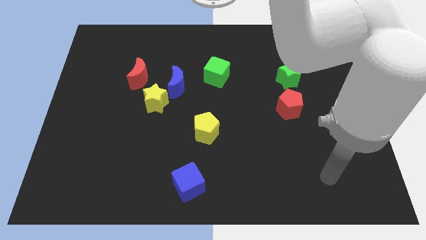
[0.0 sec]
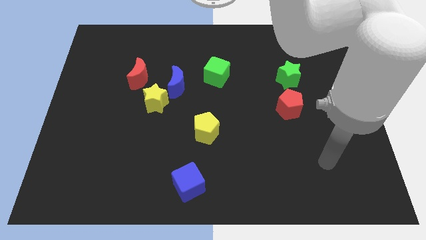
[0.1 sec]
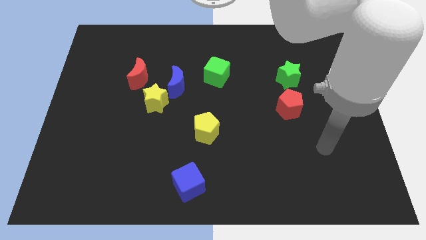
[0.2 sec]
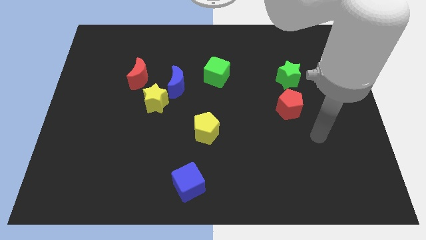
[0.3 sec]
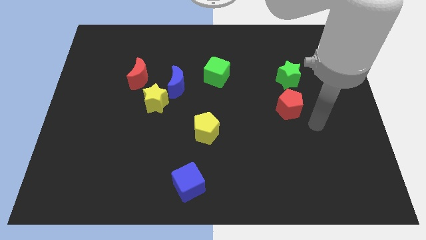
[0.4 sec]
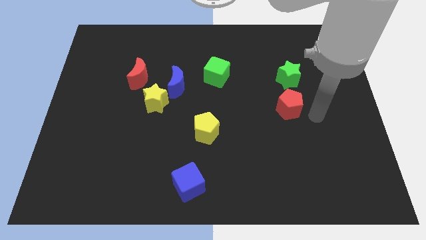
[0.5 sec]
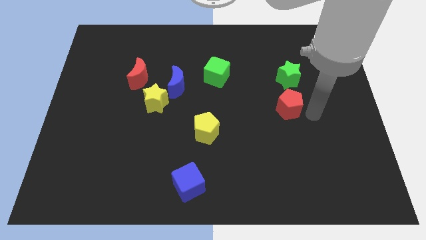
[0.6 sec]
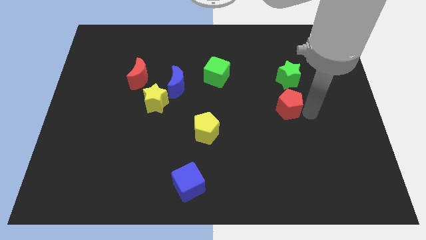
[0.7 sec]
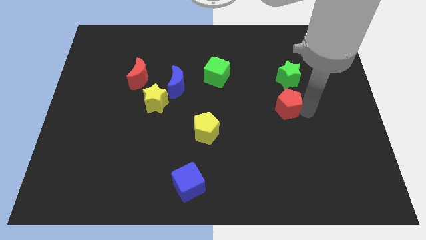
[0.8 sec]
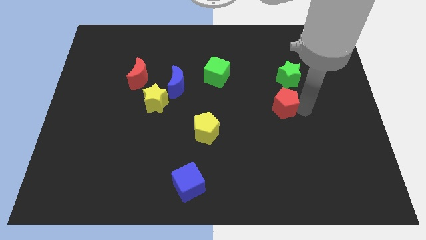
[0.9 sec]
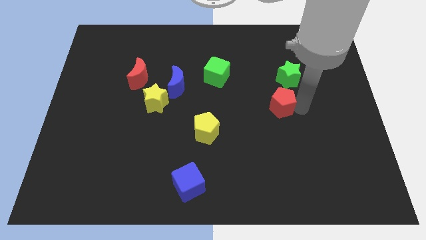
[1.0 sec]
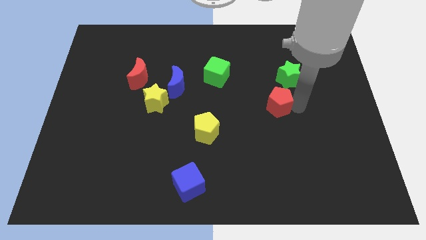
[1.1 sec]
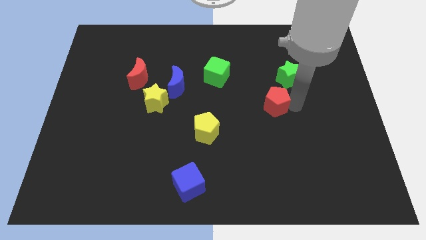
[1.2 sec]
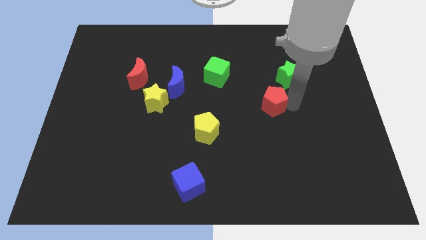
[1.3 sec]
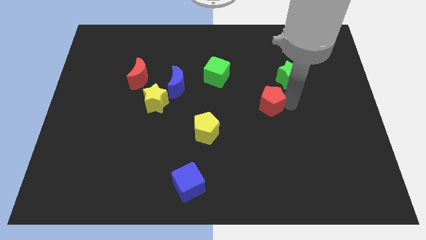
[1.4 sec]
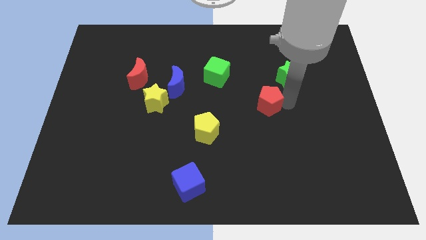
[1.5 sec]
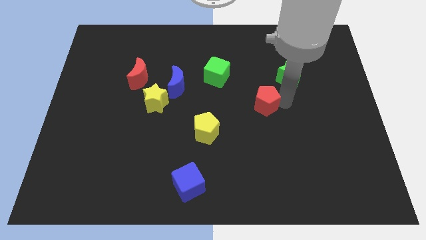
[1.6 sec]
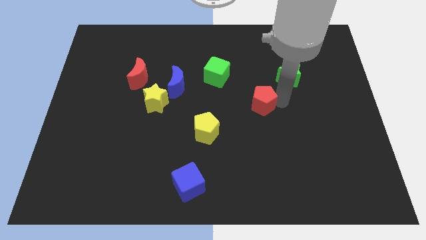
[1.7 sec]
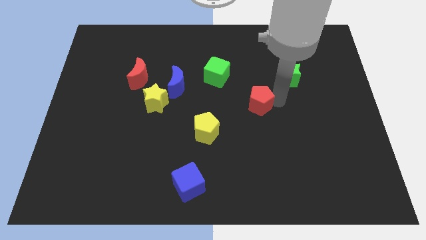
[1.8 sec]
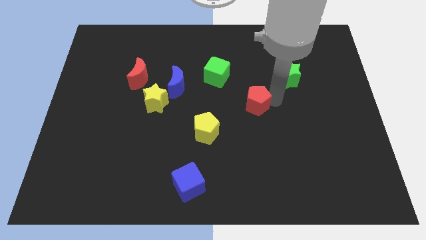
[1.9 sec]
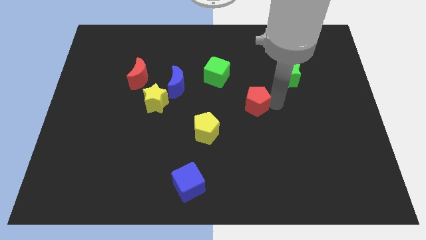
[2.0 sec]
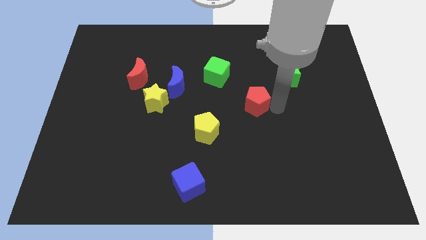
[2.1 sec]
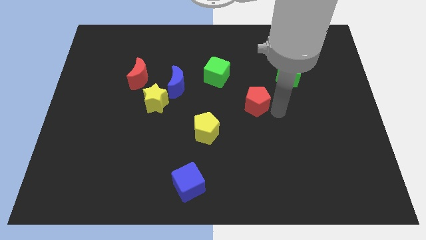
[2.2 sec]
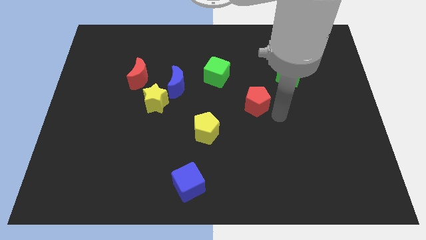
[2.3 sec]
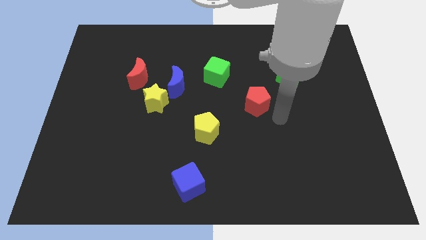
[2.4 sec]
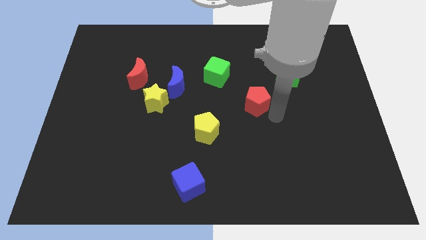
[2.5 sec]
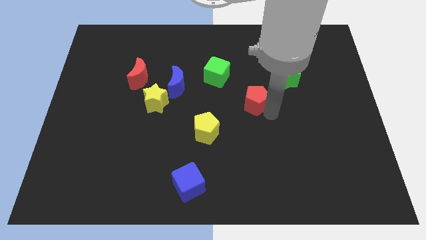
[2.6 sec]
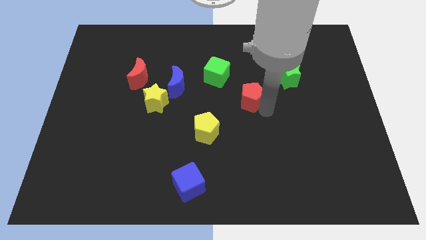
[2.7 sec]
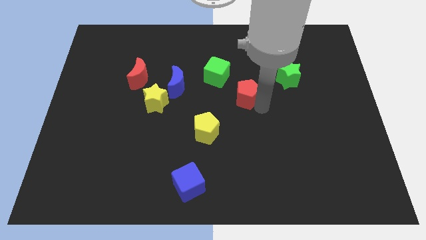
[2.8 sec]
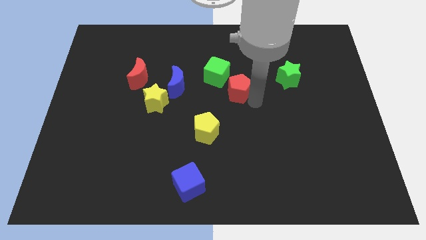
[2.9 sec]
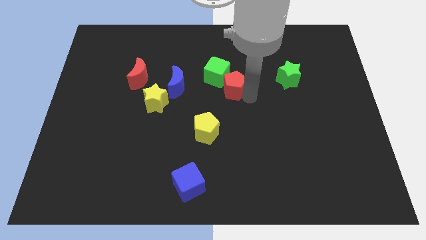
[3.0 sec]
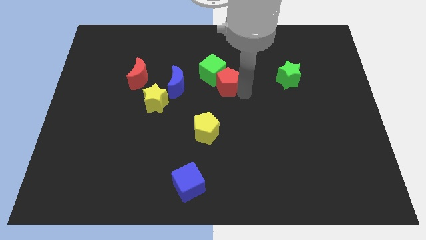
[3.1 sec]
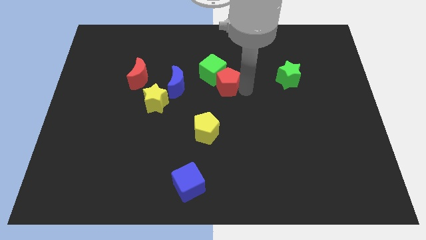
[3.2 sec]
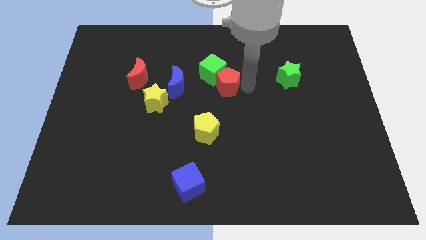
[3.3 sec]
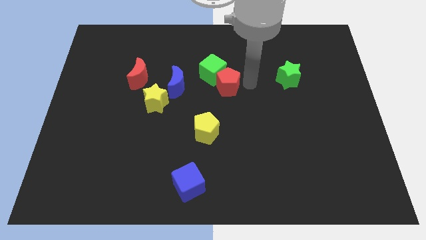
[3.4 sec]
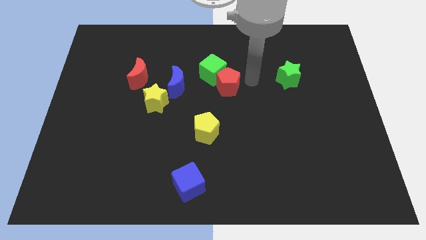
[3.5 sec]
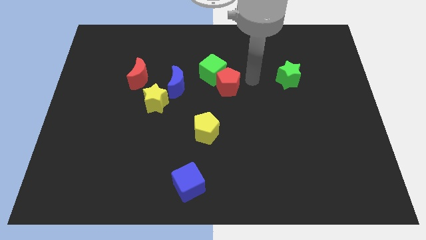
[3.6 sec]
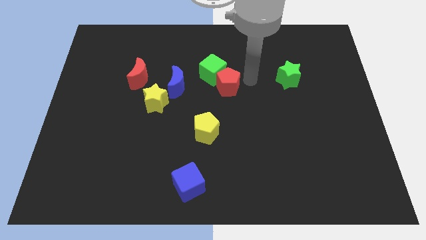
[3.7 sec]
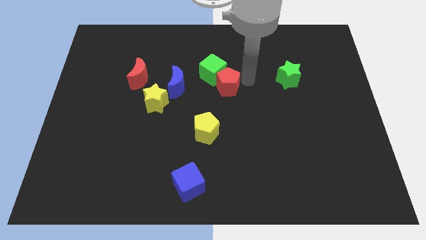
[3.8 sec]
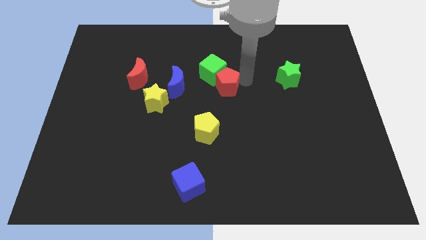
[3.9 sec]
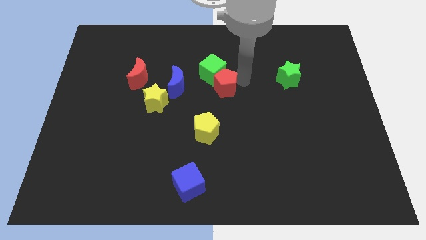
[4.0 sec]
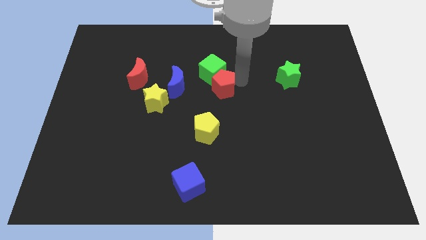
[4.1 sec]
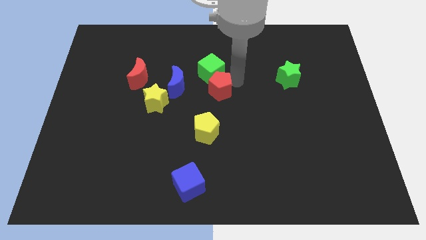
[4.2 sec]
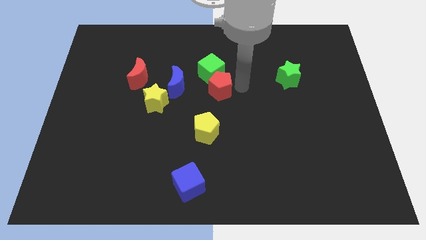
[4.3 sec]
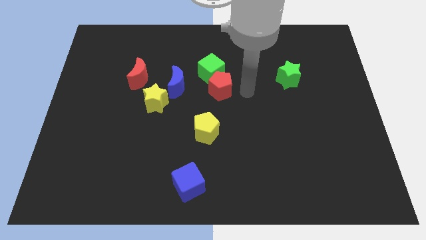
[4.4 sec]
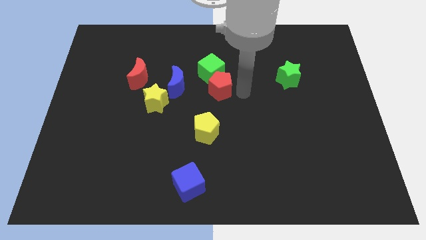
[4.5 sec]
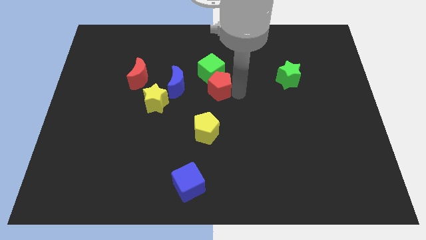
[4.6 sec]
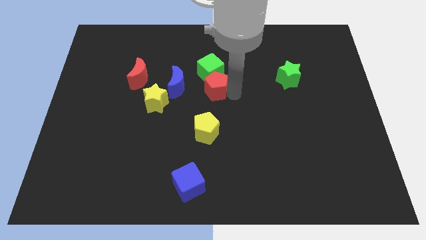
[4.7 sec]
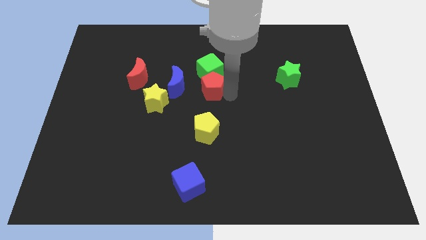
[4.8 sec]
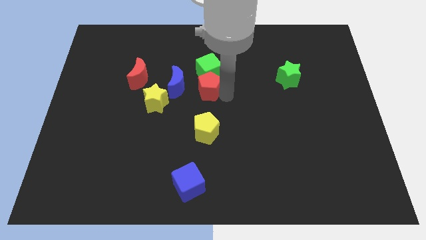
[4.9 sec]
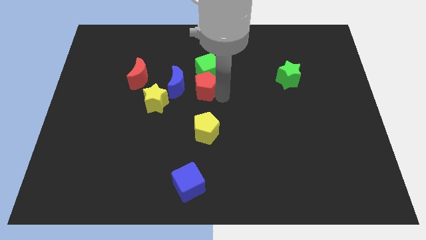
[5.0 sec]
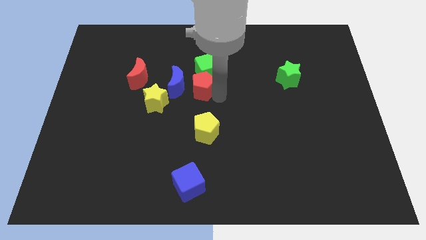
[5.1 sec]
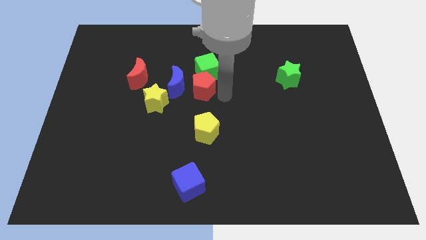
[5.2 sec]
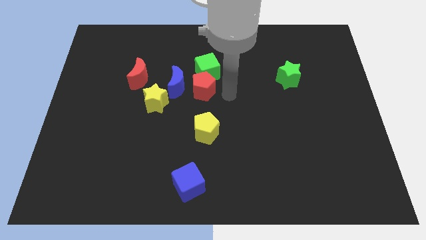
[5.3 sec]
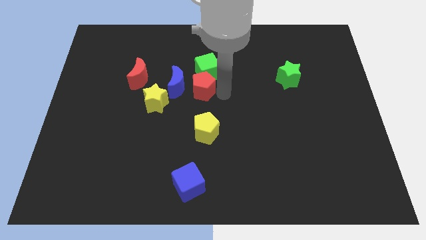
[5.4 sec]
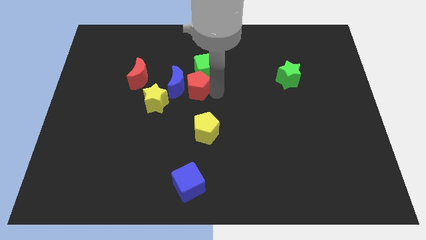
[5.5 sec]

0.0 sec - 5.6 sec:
slide the red pentagon next to the blue moon
